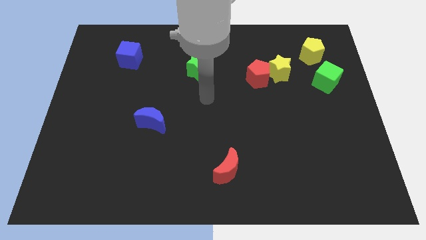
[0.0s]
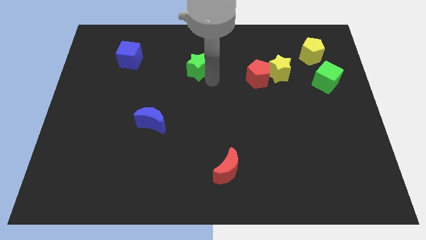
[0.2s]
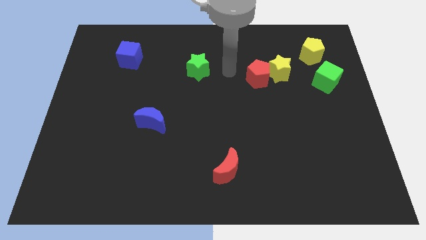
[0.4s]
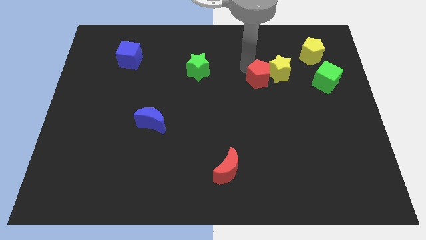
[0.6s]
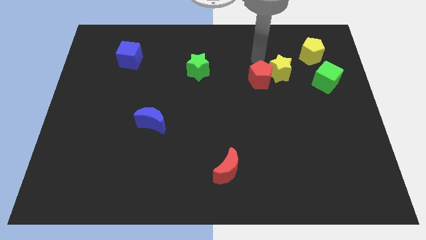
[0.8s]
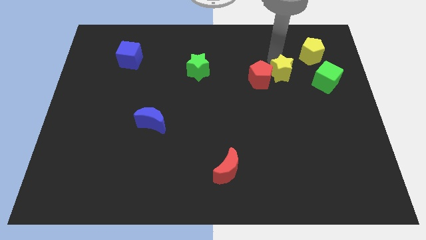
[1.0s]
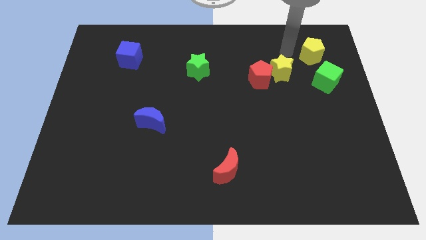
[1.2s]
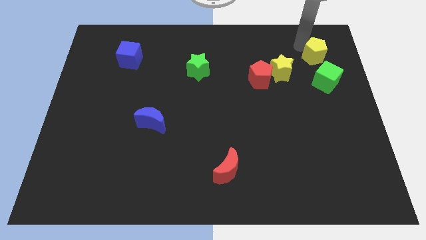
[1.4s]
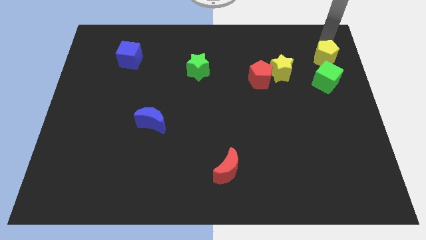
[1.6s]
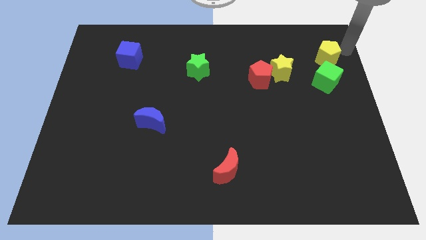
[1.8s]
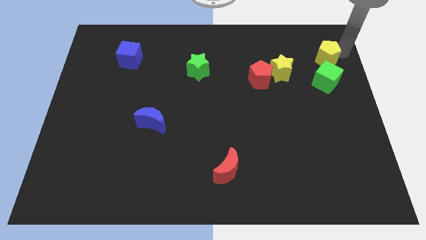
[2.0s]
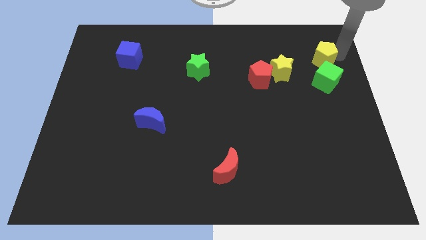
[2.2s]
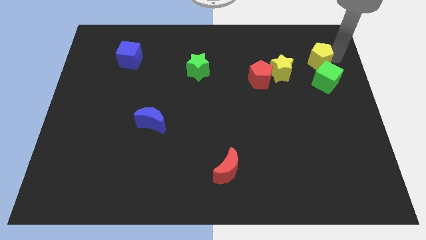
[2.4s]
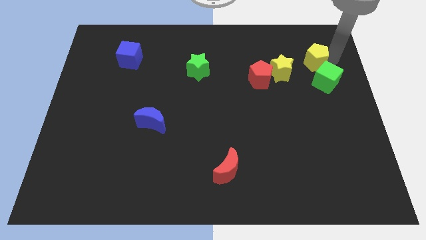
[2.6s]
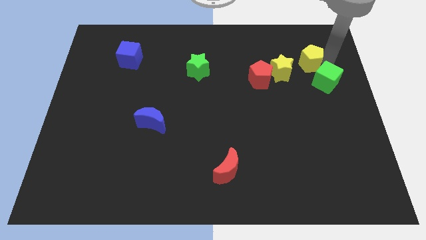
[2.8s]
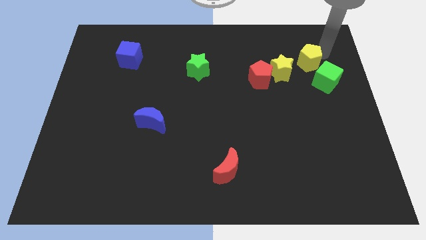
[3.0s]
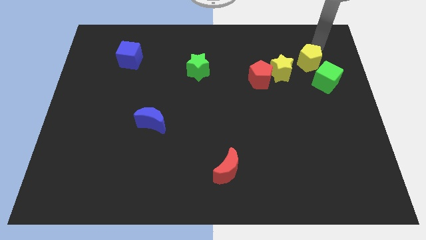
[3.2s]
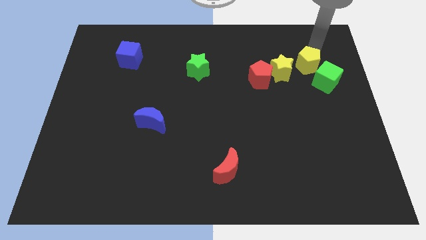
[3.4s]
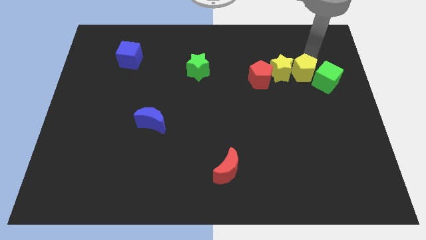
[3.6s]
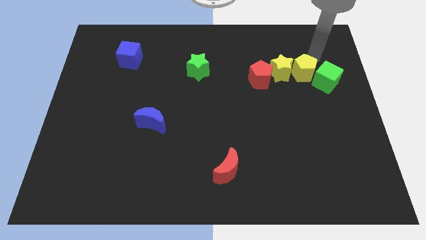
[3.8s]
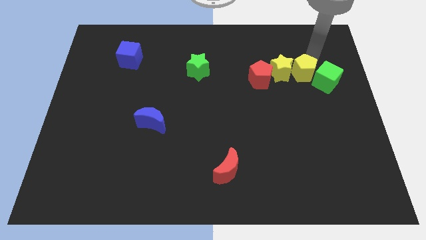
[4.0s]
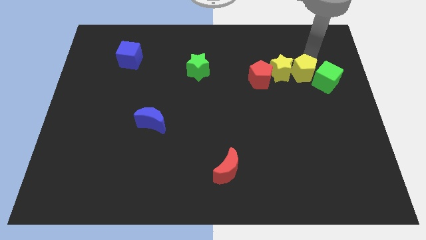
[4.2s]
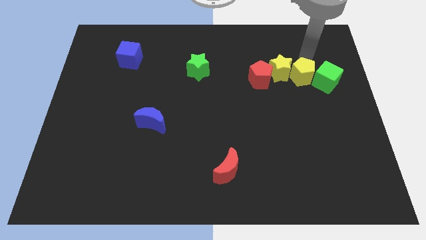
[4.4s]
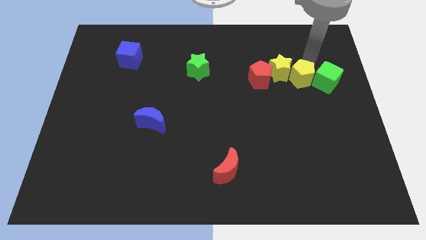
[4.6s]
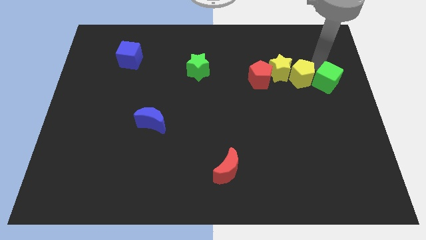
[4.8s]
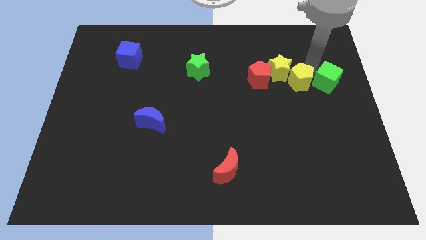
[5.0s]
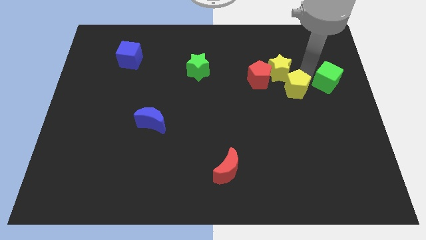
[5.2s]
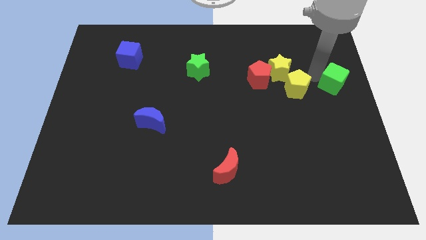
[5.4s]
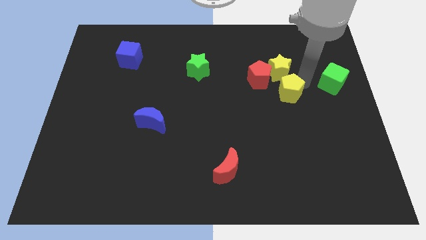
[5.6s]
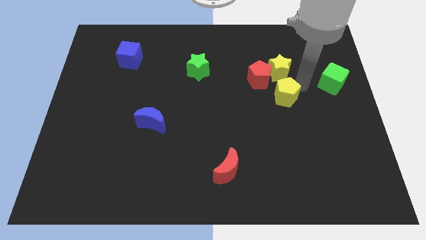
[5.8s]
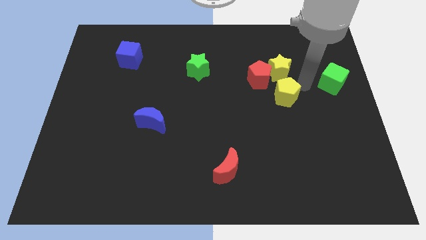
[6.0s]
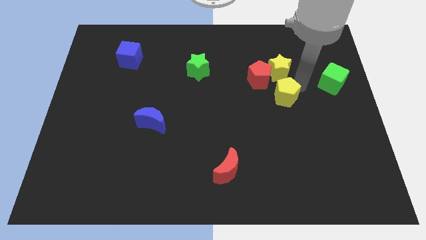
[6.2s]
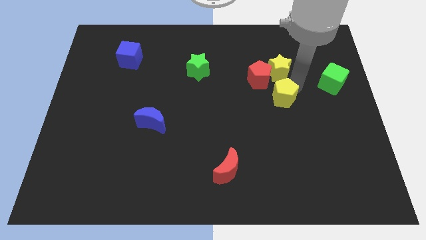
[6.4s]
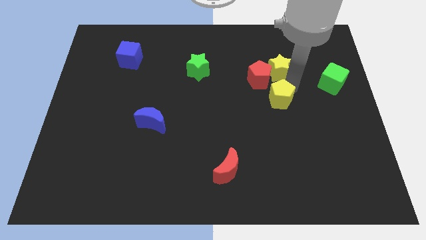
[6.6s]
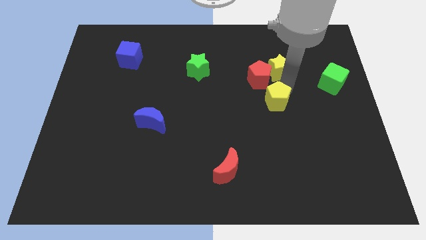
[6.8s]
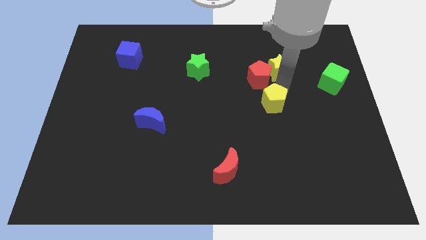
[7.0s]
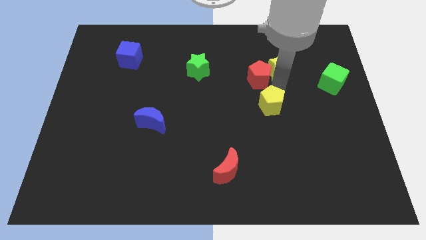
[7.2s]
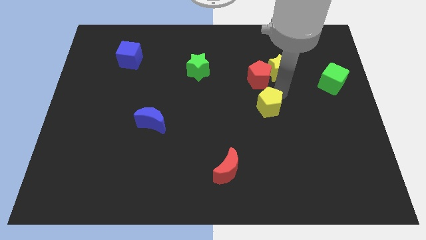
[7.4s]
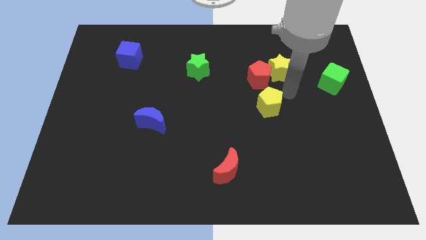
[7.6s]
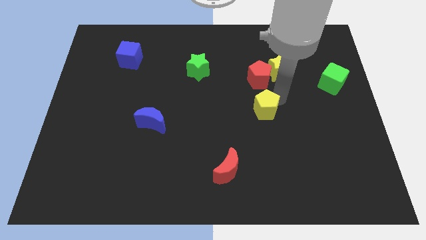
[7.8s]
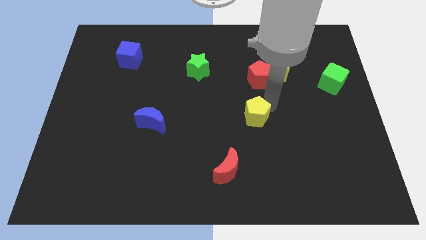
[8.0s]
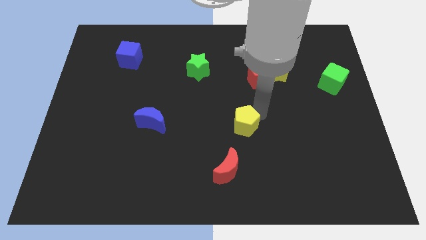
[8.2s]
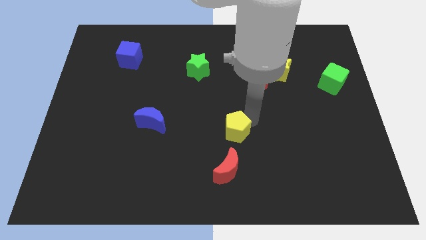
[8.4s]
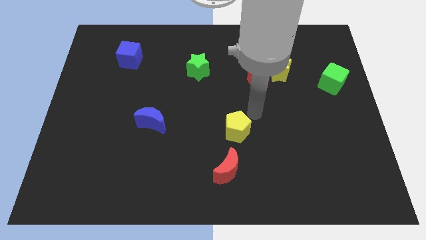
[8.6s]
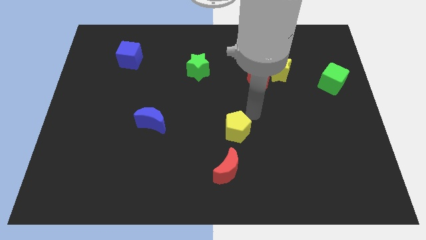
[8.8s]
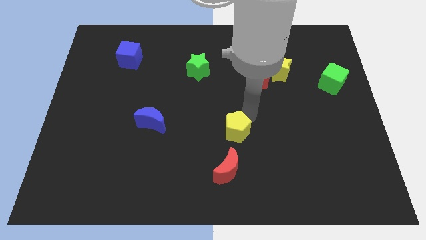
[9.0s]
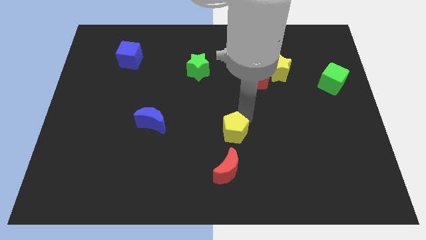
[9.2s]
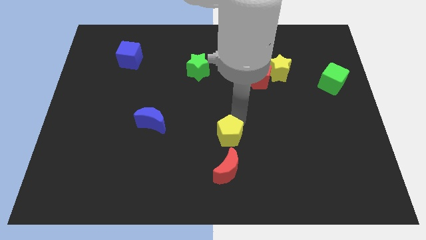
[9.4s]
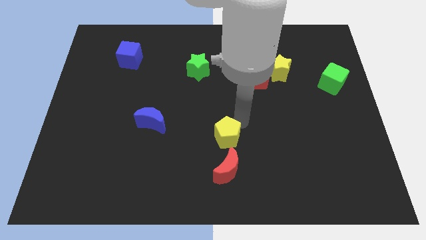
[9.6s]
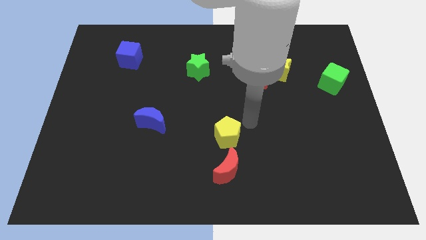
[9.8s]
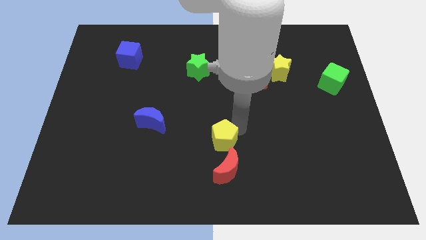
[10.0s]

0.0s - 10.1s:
put the yellow pentagon to the top left of the red moon

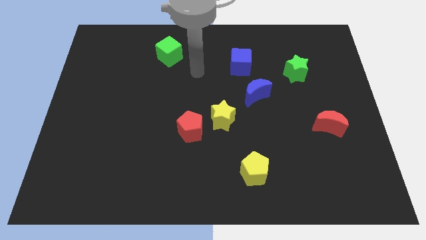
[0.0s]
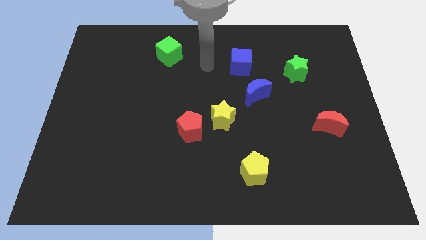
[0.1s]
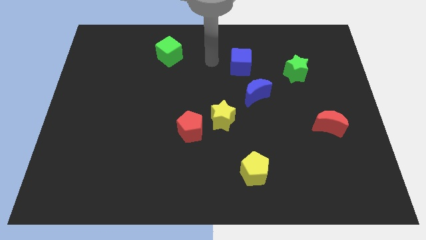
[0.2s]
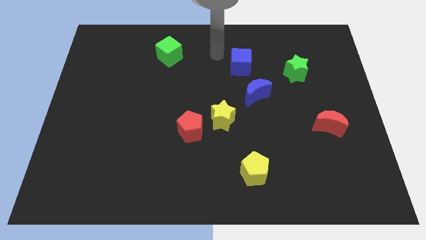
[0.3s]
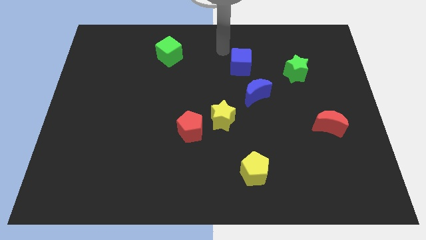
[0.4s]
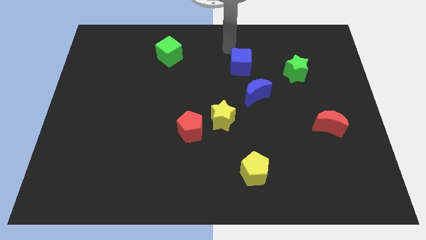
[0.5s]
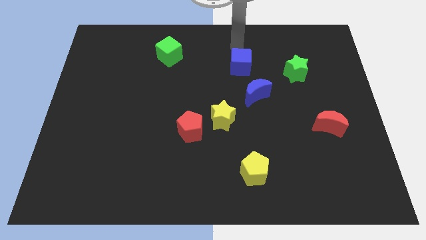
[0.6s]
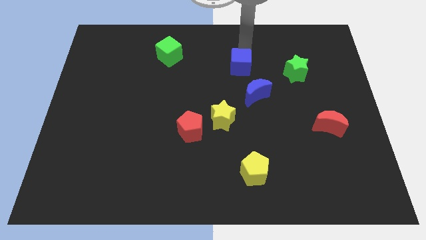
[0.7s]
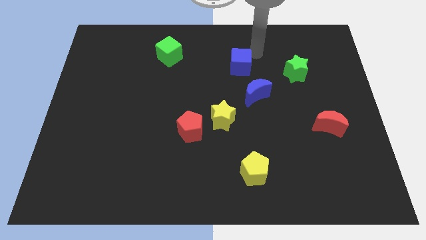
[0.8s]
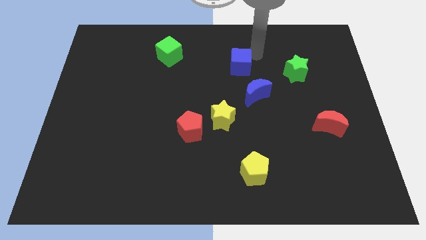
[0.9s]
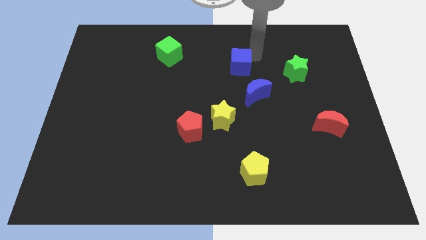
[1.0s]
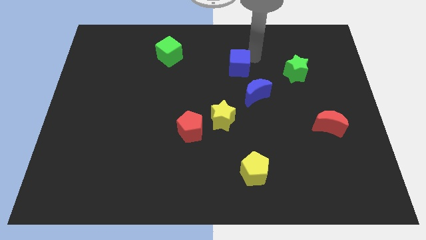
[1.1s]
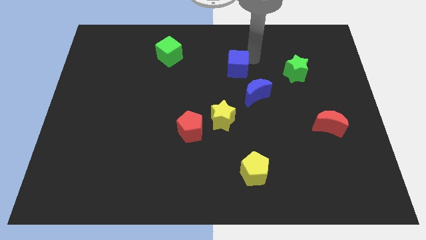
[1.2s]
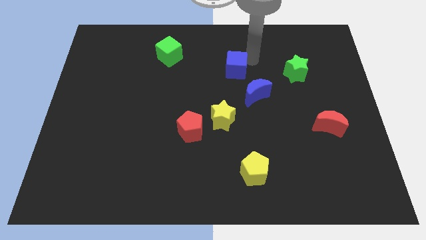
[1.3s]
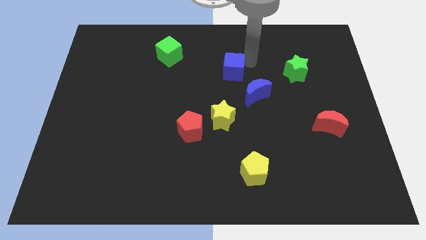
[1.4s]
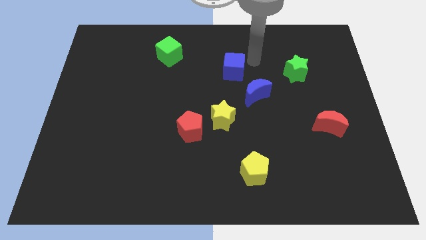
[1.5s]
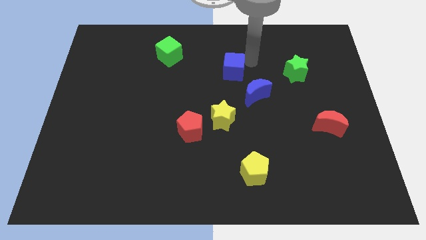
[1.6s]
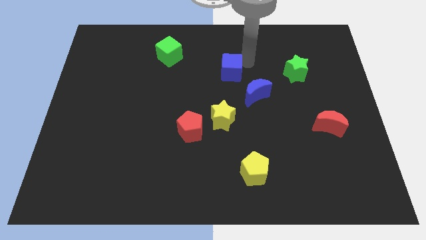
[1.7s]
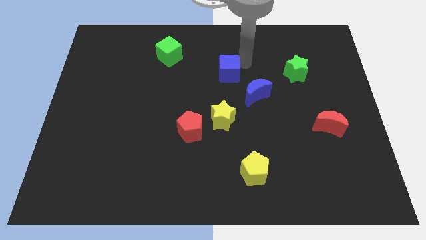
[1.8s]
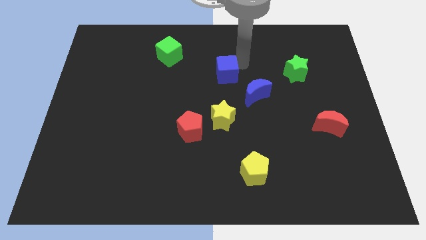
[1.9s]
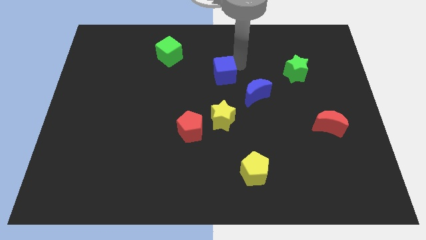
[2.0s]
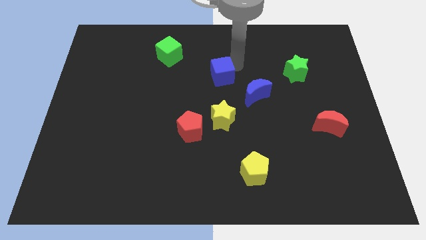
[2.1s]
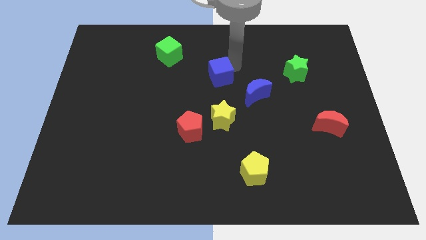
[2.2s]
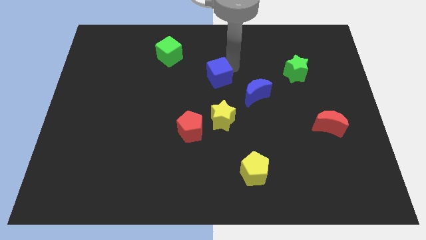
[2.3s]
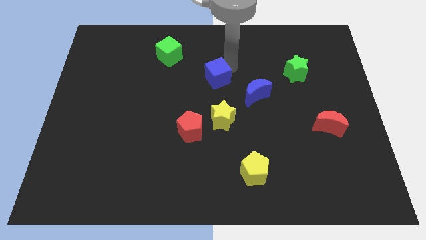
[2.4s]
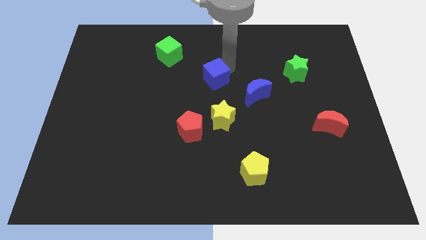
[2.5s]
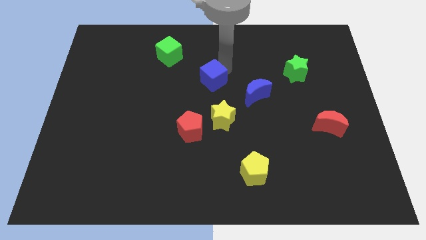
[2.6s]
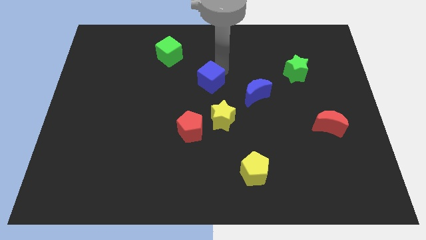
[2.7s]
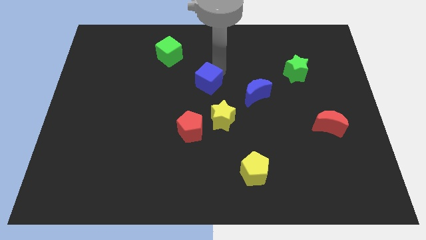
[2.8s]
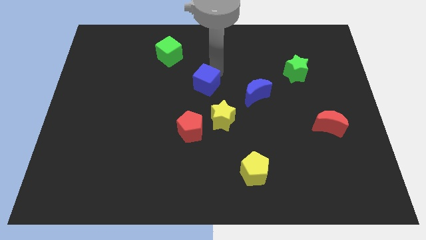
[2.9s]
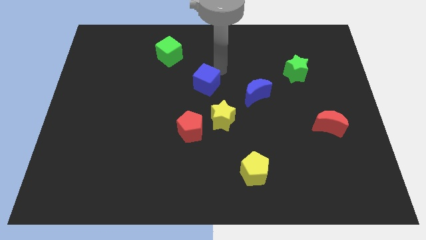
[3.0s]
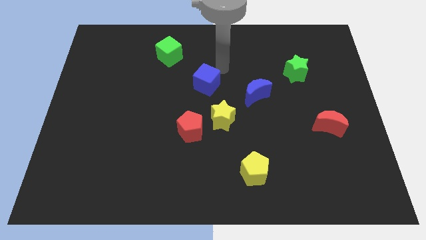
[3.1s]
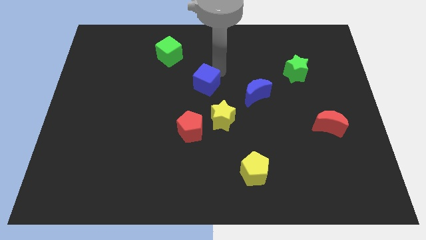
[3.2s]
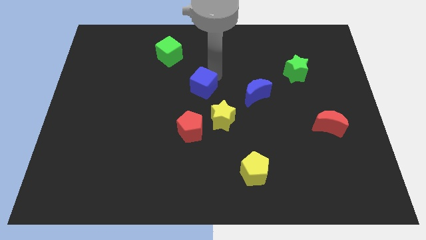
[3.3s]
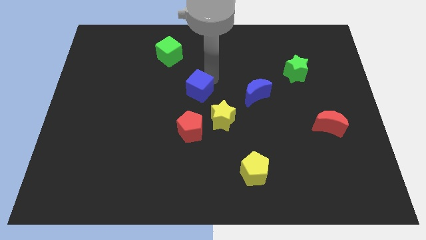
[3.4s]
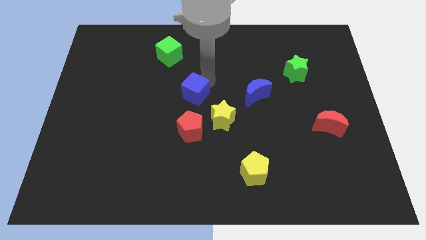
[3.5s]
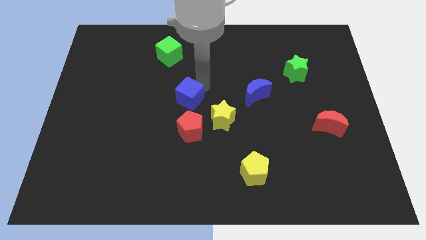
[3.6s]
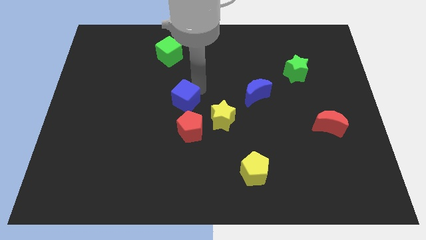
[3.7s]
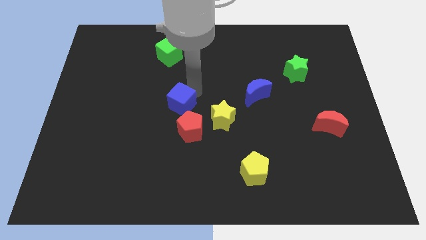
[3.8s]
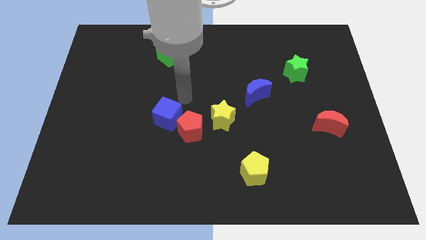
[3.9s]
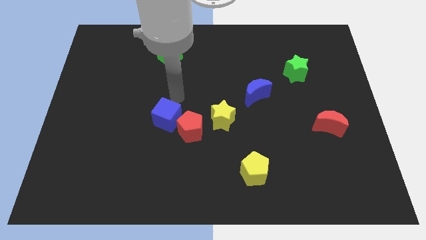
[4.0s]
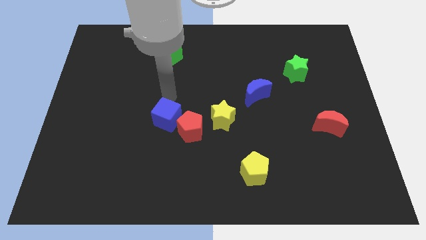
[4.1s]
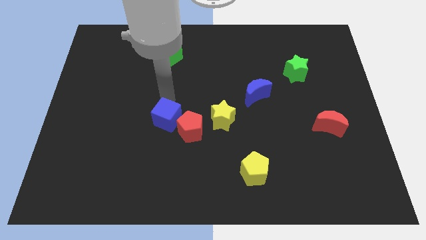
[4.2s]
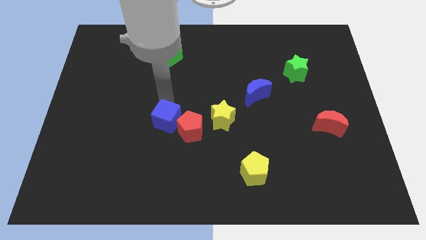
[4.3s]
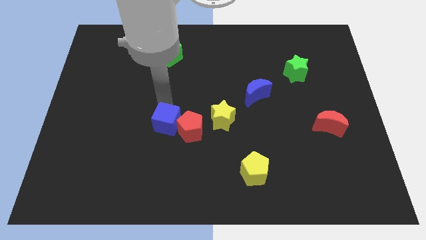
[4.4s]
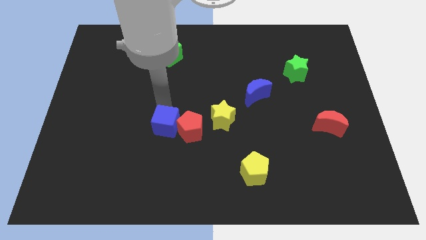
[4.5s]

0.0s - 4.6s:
slide the blue cube diagonally down and to the left of the red pentagon
